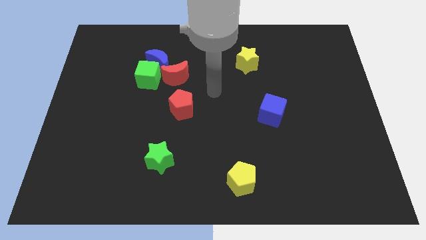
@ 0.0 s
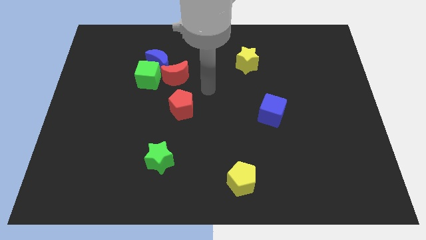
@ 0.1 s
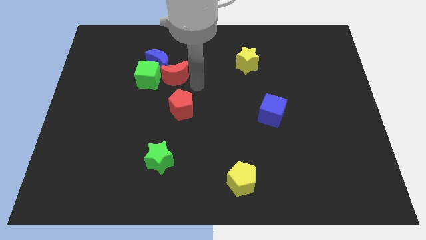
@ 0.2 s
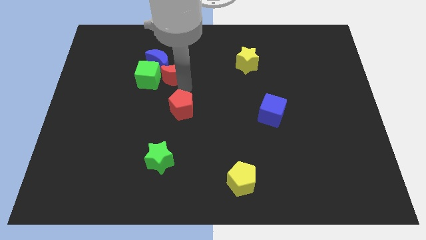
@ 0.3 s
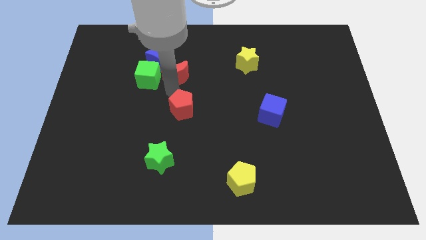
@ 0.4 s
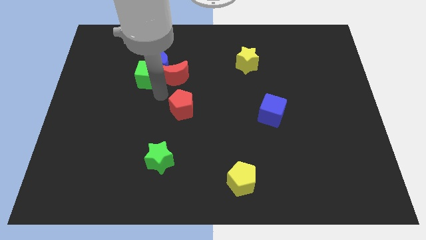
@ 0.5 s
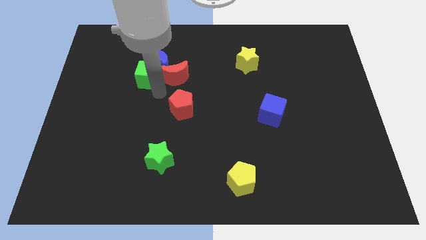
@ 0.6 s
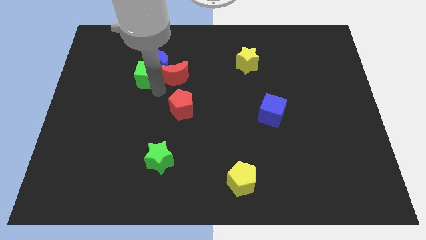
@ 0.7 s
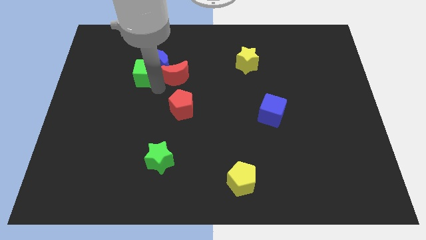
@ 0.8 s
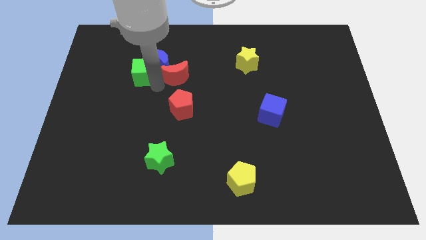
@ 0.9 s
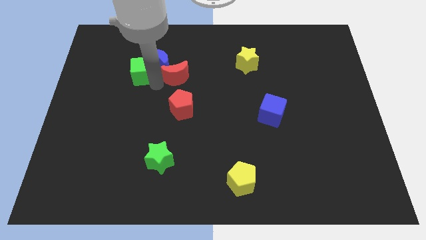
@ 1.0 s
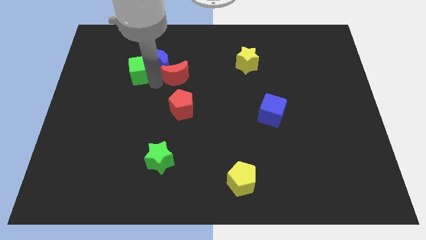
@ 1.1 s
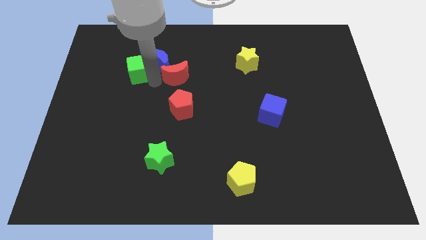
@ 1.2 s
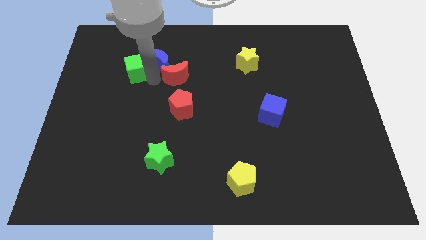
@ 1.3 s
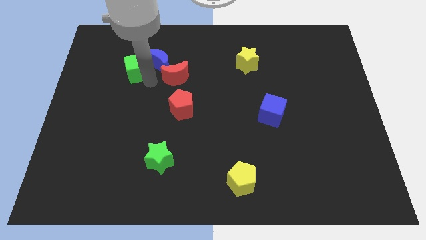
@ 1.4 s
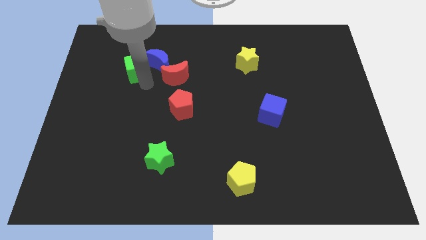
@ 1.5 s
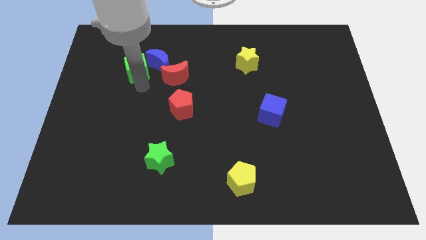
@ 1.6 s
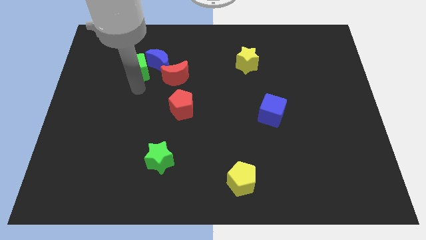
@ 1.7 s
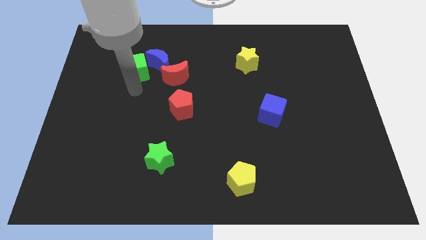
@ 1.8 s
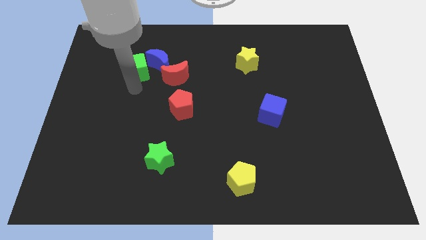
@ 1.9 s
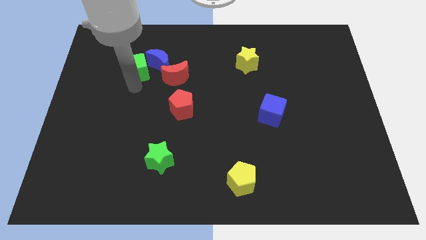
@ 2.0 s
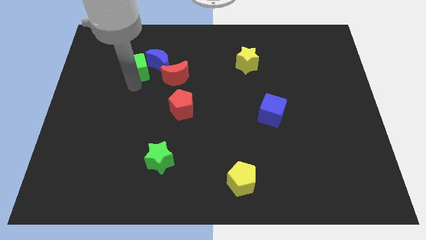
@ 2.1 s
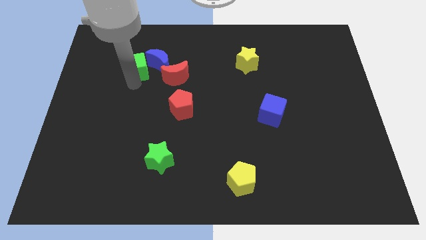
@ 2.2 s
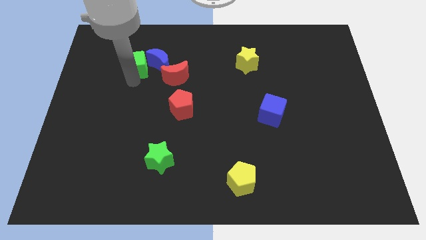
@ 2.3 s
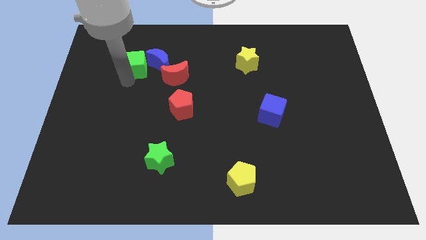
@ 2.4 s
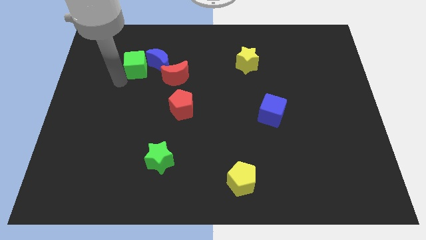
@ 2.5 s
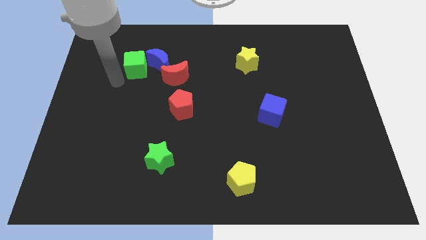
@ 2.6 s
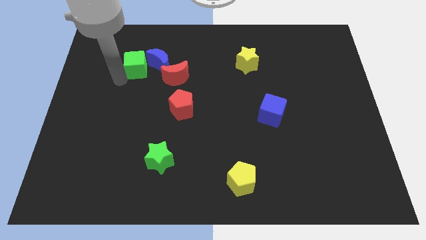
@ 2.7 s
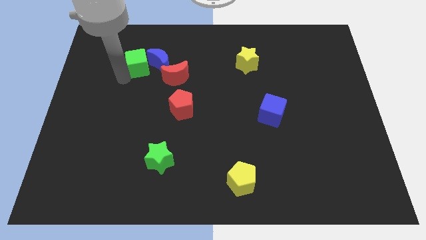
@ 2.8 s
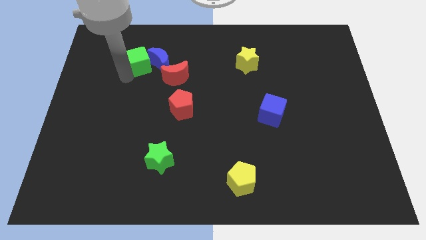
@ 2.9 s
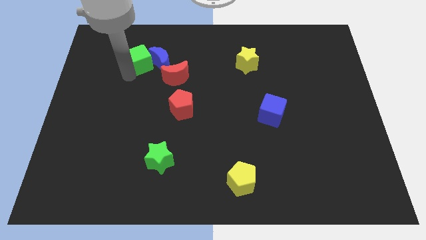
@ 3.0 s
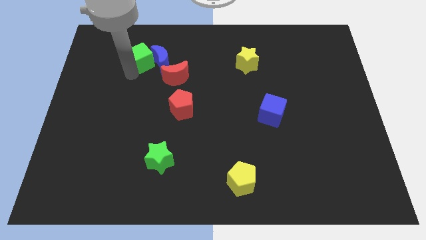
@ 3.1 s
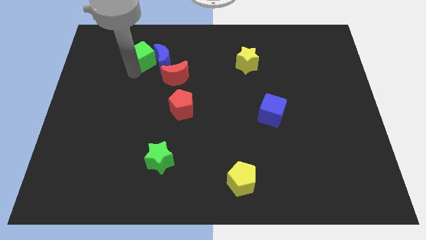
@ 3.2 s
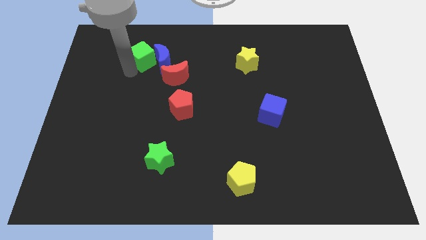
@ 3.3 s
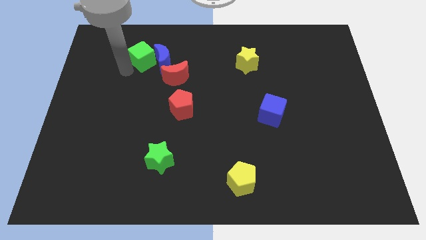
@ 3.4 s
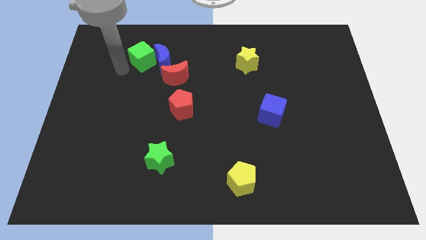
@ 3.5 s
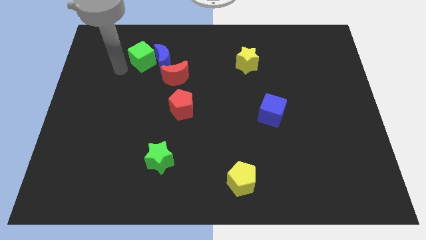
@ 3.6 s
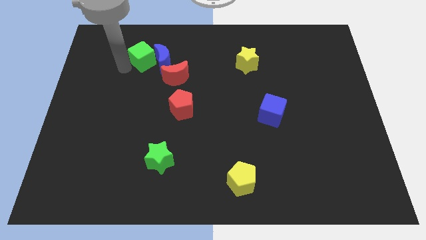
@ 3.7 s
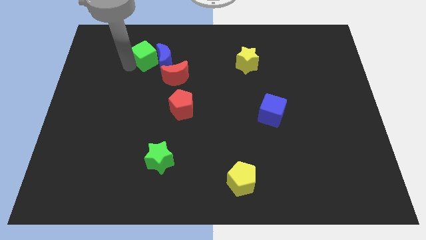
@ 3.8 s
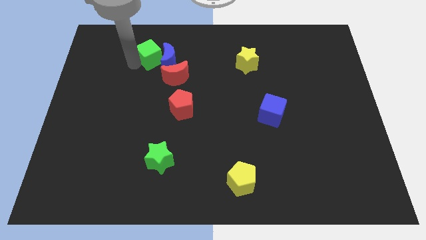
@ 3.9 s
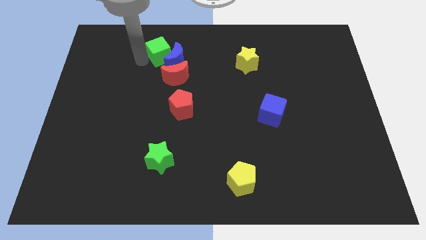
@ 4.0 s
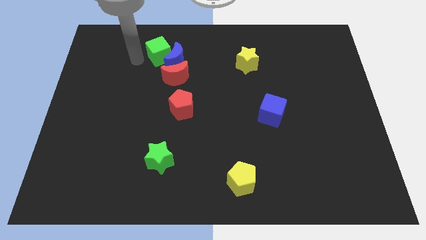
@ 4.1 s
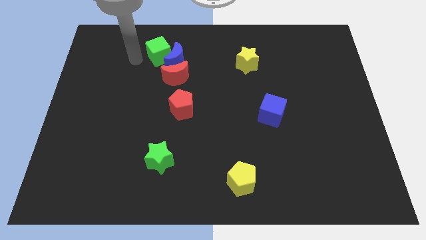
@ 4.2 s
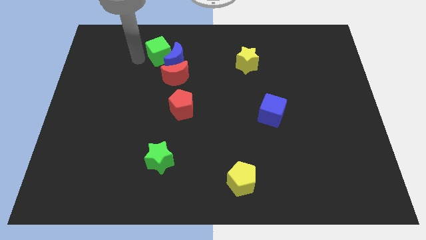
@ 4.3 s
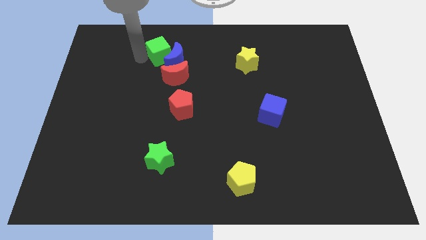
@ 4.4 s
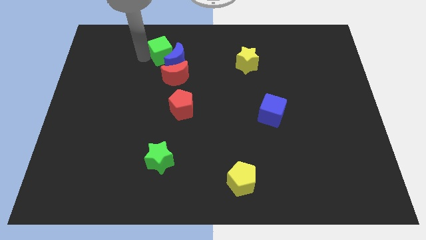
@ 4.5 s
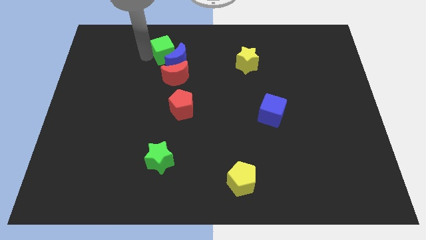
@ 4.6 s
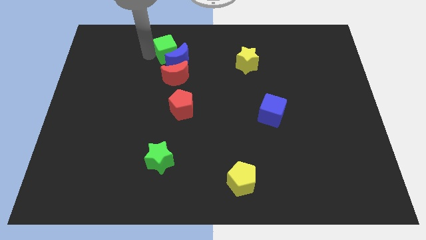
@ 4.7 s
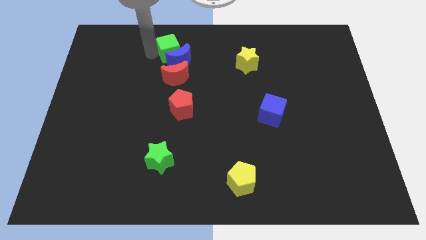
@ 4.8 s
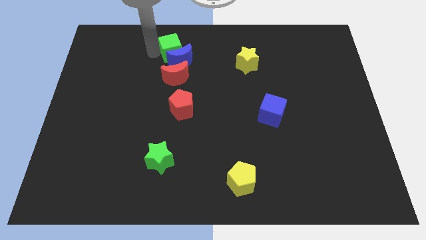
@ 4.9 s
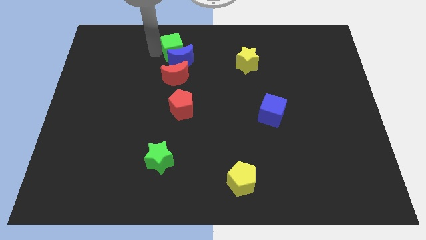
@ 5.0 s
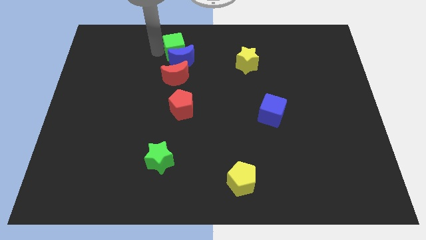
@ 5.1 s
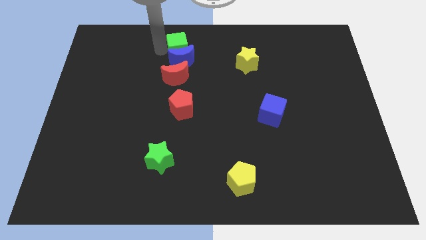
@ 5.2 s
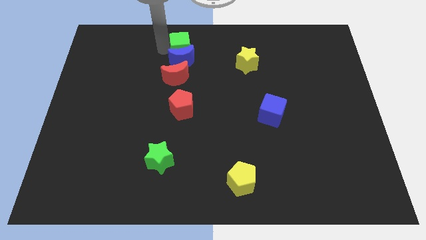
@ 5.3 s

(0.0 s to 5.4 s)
push the green cube to the top side

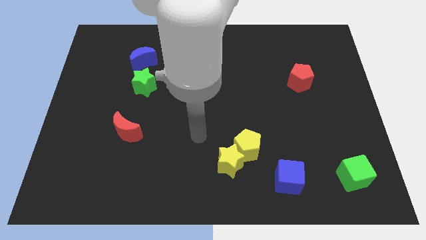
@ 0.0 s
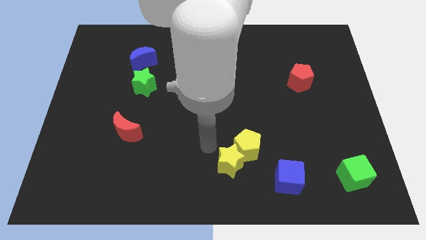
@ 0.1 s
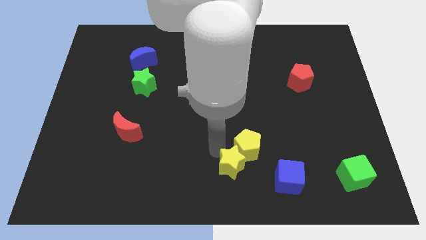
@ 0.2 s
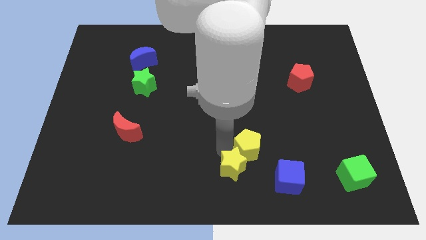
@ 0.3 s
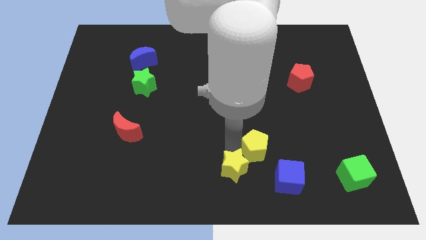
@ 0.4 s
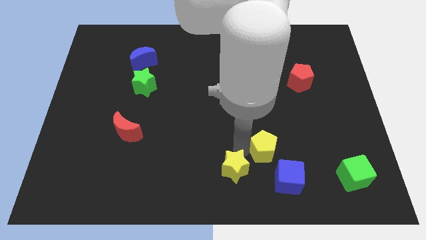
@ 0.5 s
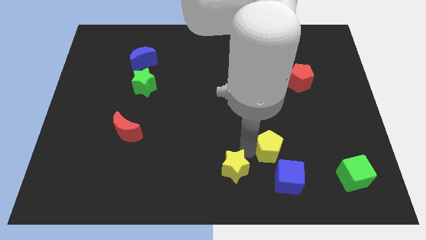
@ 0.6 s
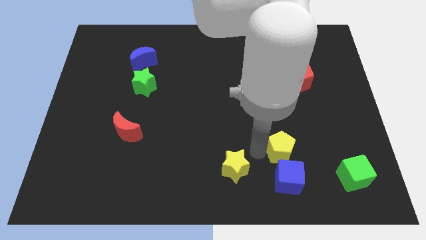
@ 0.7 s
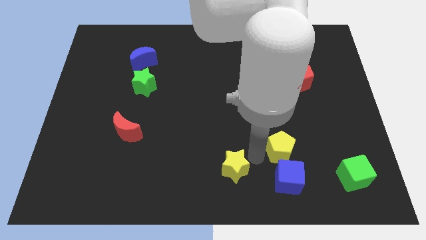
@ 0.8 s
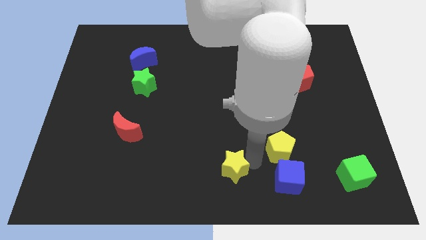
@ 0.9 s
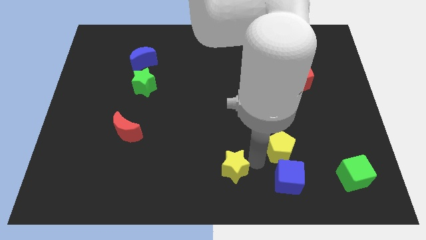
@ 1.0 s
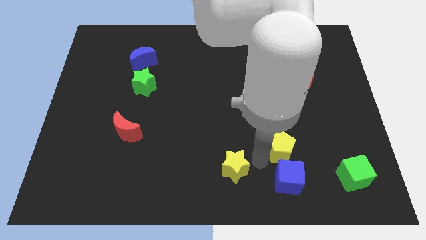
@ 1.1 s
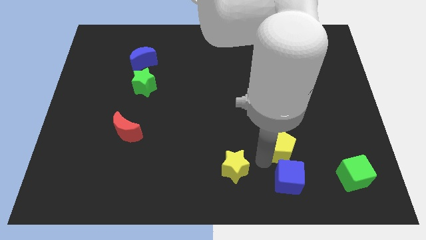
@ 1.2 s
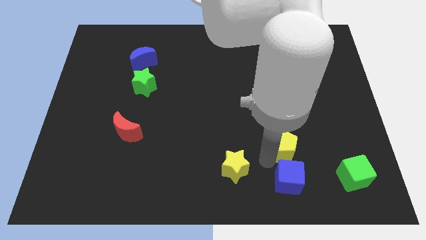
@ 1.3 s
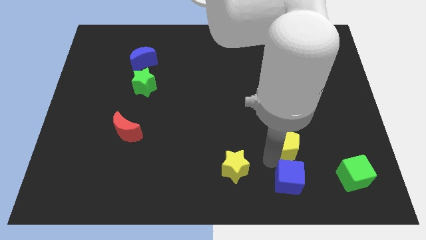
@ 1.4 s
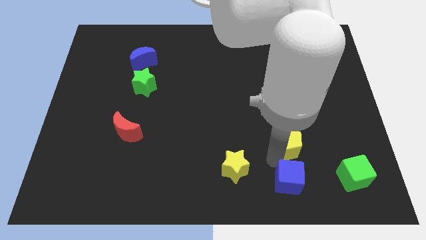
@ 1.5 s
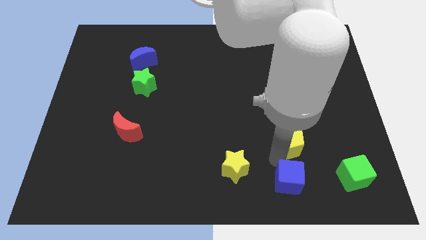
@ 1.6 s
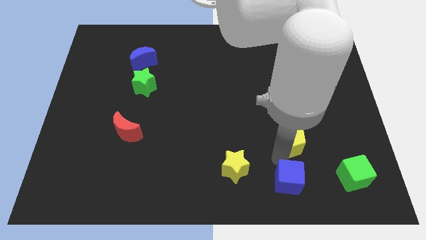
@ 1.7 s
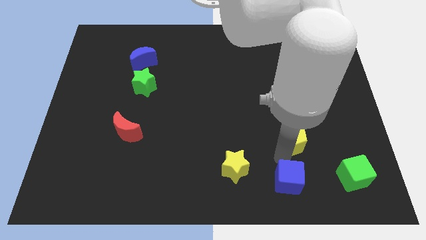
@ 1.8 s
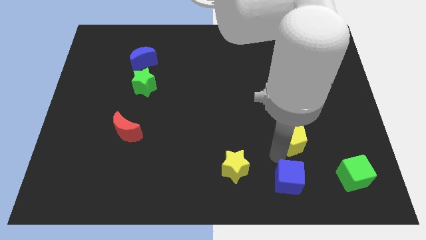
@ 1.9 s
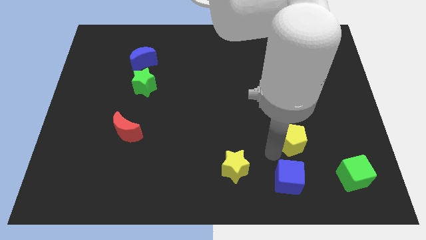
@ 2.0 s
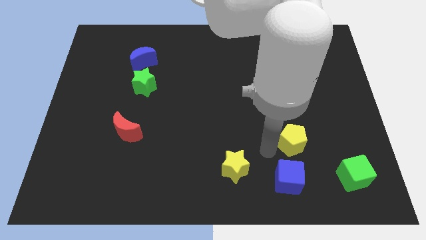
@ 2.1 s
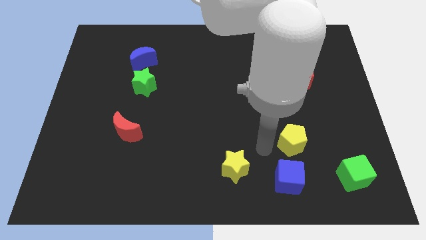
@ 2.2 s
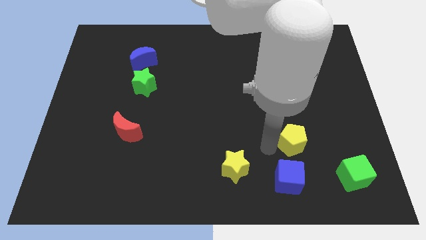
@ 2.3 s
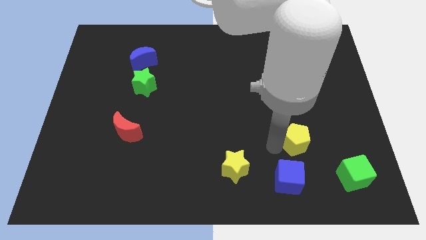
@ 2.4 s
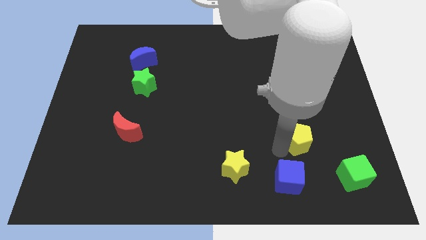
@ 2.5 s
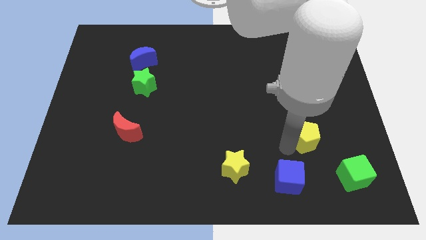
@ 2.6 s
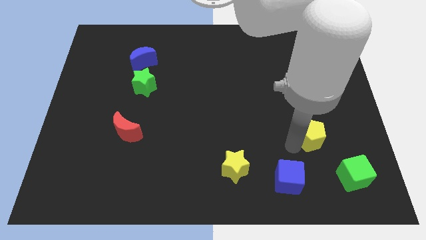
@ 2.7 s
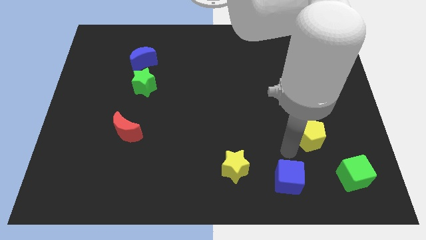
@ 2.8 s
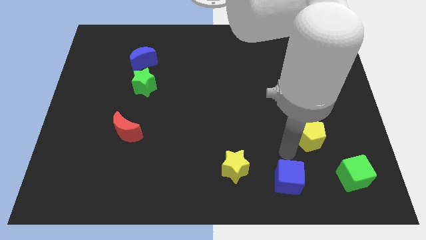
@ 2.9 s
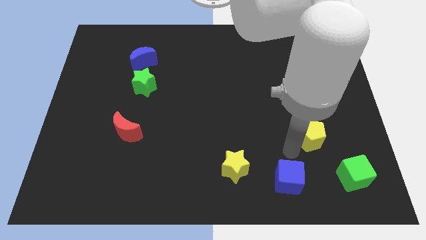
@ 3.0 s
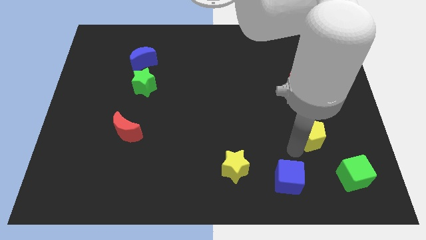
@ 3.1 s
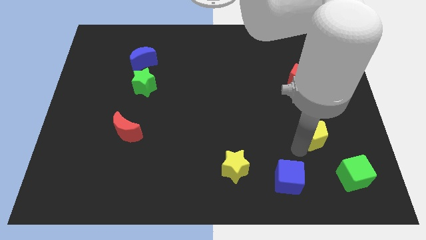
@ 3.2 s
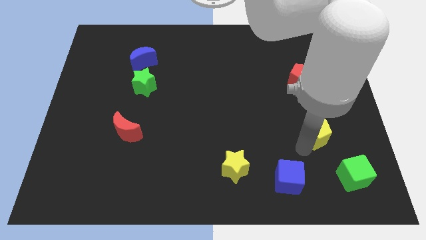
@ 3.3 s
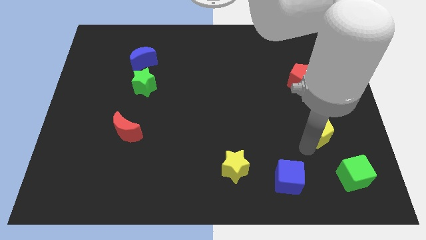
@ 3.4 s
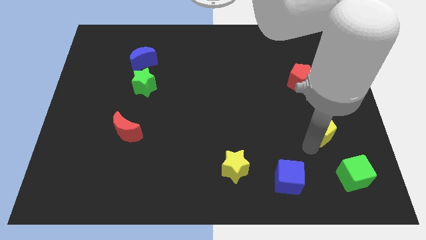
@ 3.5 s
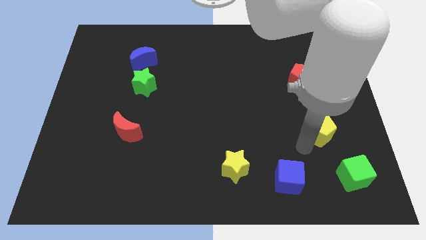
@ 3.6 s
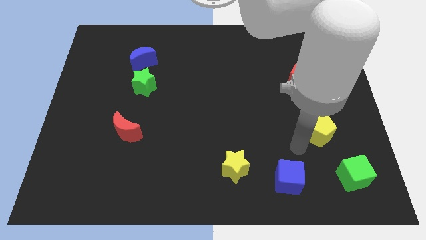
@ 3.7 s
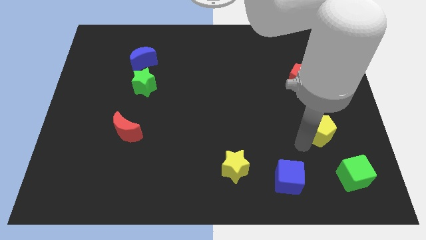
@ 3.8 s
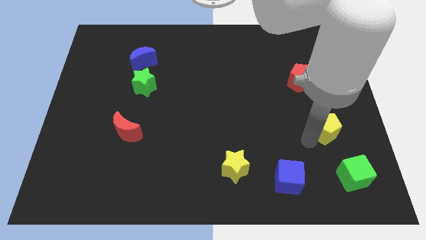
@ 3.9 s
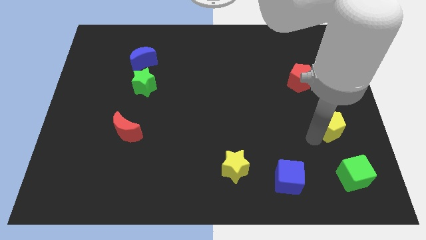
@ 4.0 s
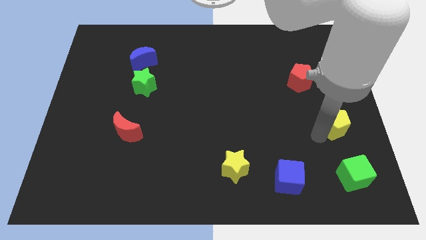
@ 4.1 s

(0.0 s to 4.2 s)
put the yellow pentagon to the right side of the board
